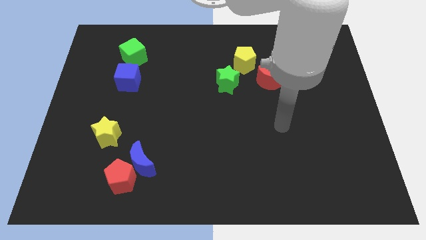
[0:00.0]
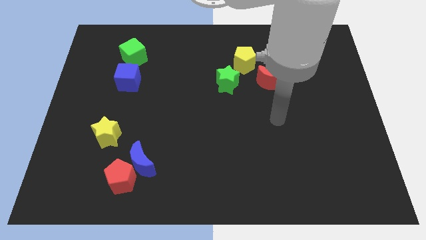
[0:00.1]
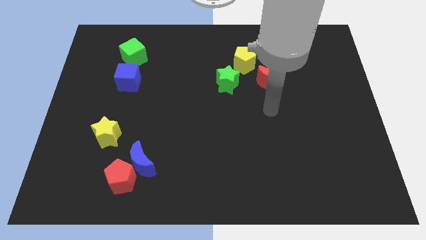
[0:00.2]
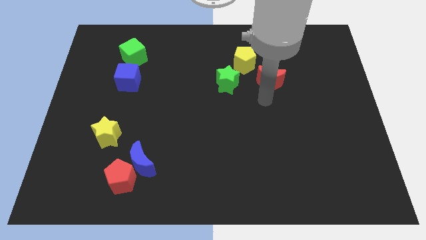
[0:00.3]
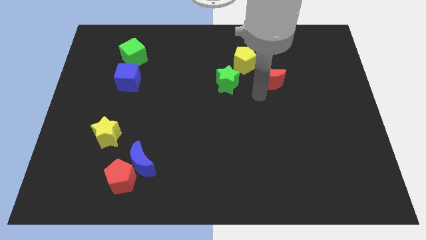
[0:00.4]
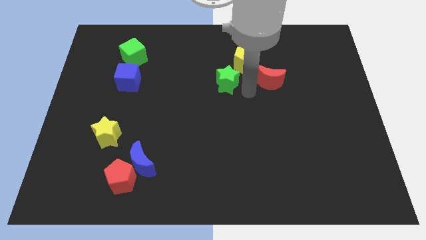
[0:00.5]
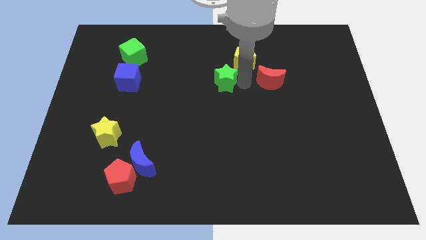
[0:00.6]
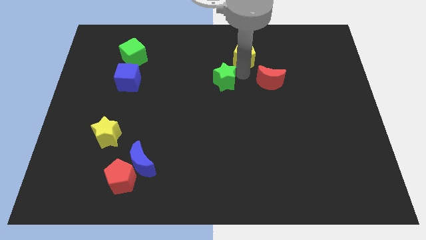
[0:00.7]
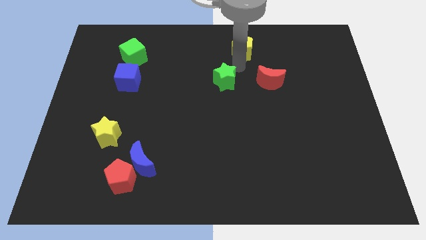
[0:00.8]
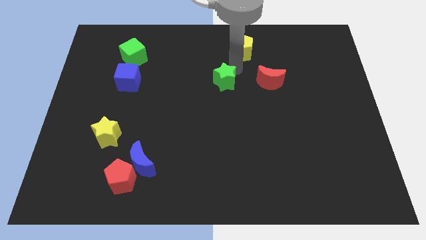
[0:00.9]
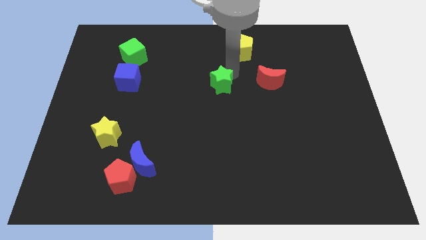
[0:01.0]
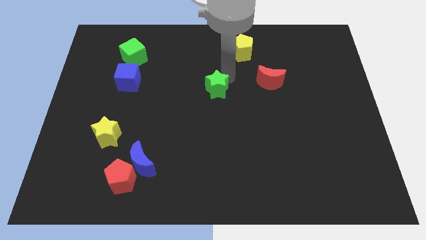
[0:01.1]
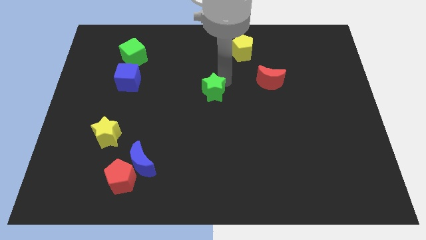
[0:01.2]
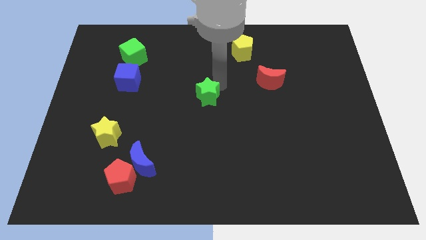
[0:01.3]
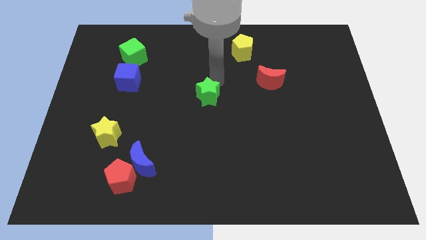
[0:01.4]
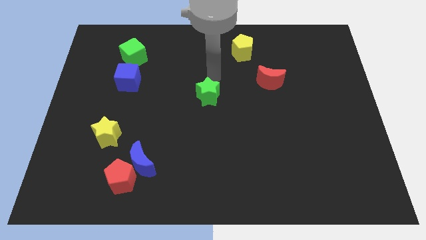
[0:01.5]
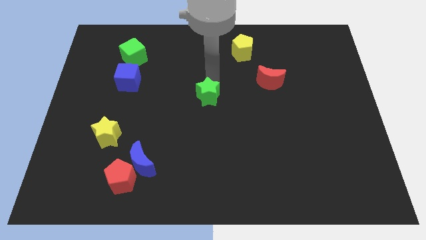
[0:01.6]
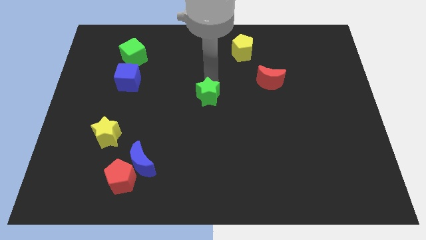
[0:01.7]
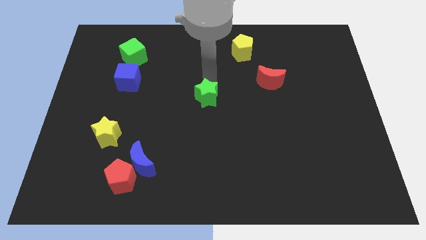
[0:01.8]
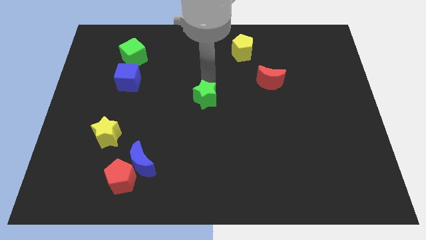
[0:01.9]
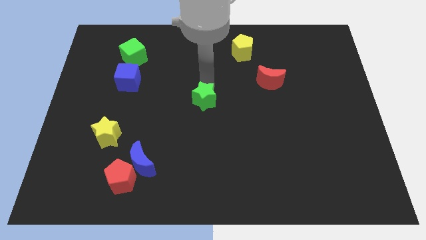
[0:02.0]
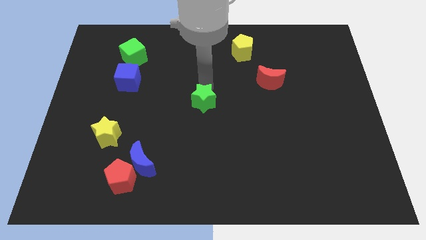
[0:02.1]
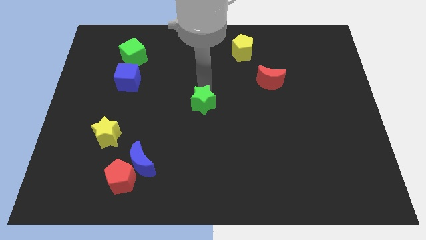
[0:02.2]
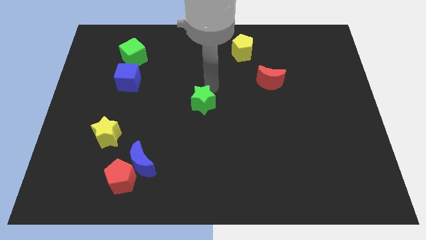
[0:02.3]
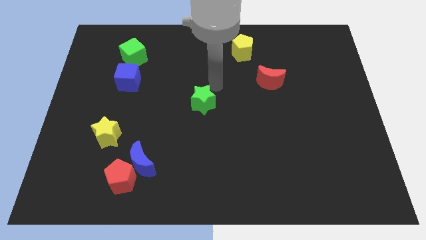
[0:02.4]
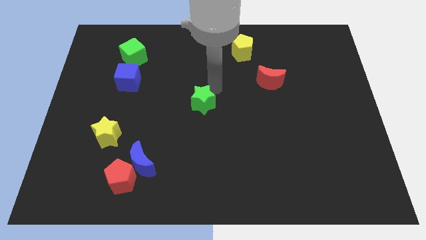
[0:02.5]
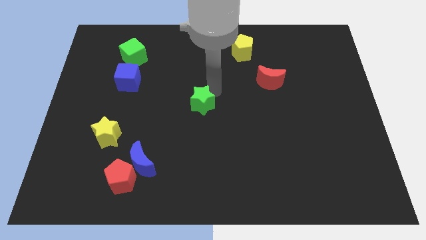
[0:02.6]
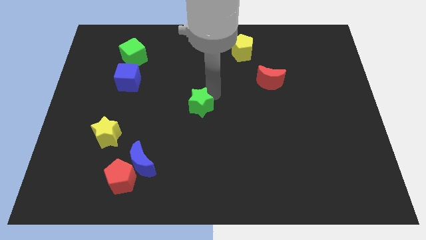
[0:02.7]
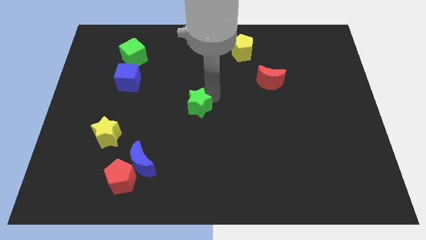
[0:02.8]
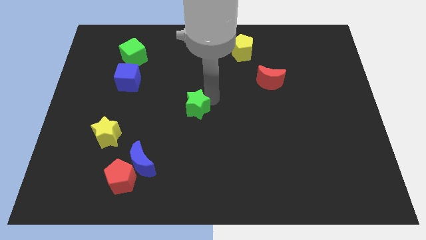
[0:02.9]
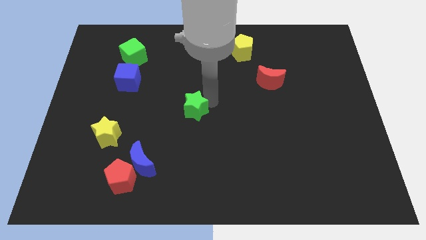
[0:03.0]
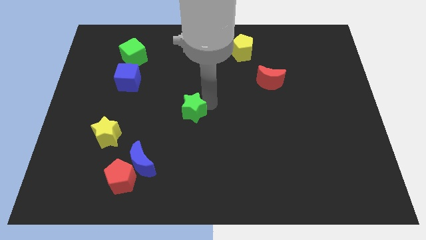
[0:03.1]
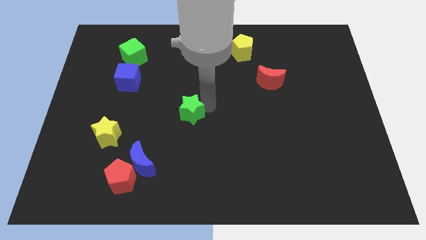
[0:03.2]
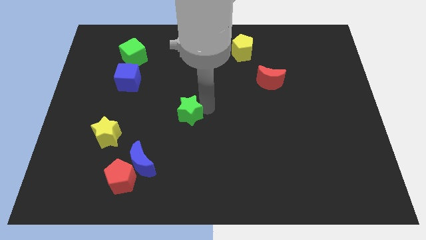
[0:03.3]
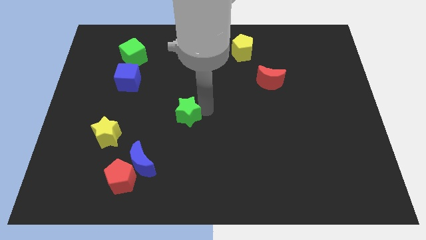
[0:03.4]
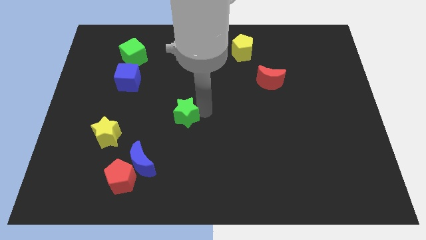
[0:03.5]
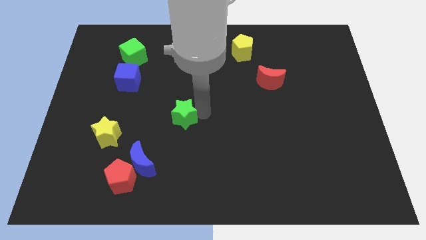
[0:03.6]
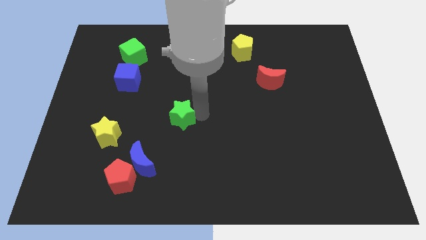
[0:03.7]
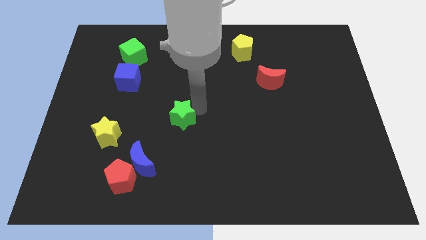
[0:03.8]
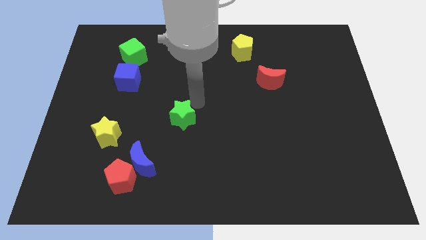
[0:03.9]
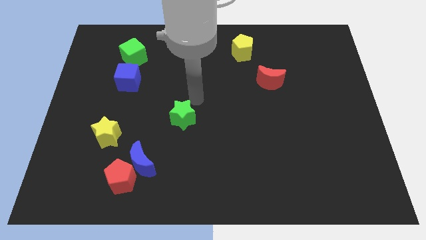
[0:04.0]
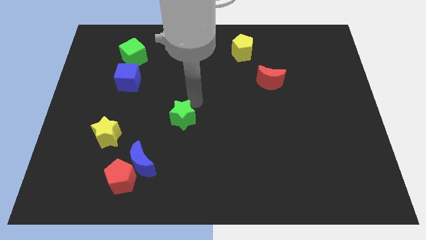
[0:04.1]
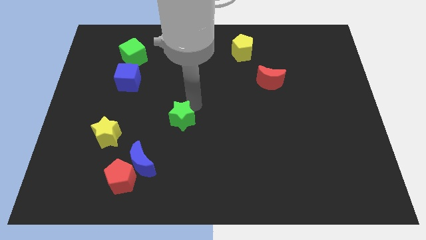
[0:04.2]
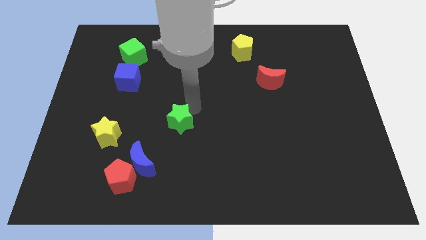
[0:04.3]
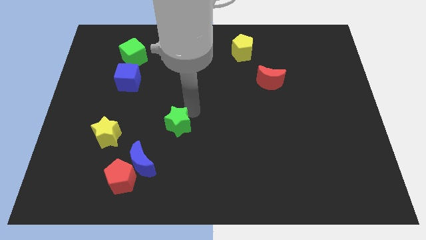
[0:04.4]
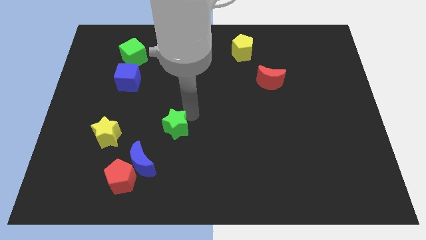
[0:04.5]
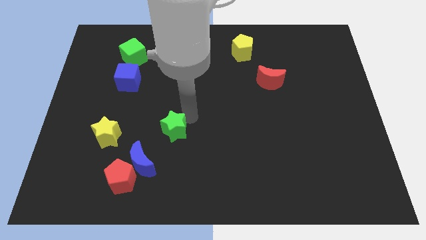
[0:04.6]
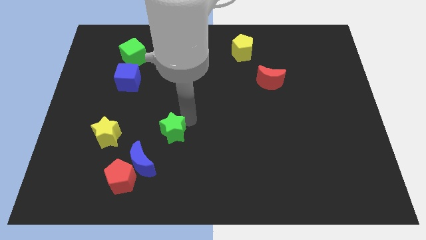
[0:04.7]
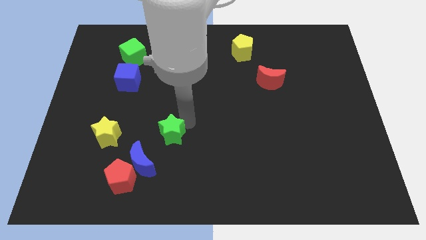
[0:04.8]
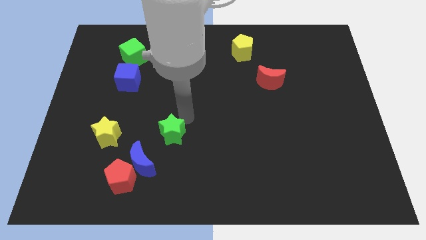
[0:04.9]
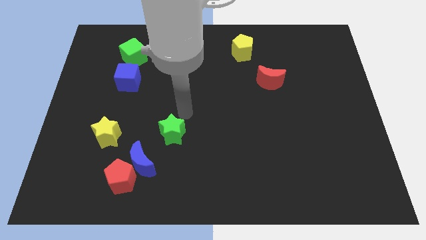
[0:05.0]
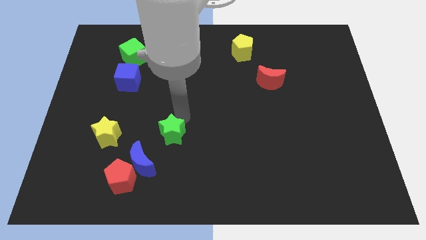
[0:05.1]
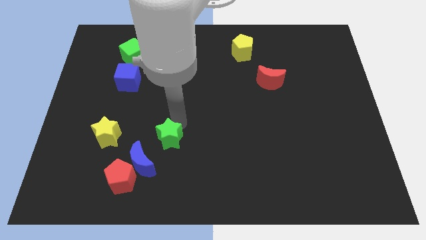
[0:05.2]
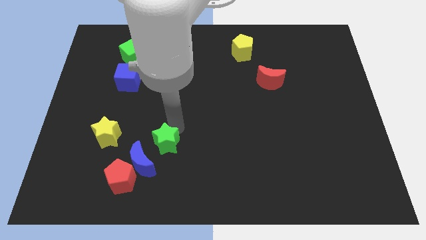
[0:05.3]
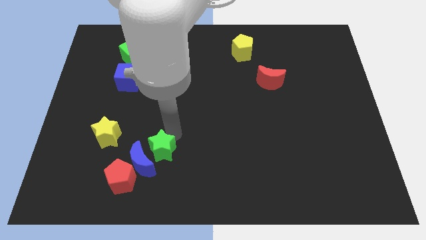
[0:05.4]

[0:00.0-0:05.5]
slide the green star towards the blue moon

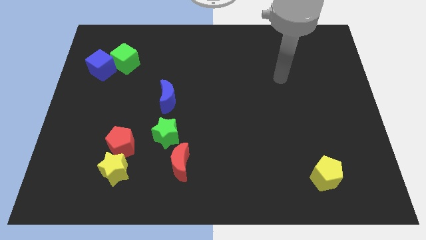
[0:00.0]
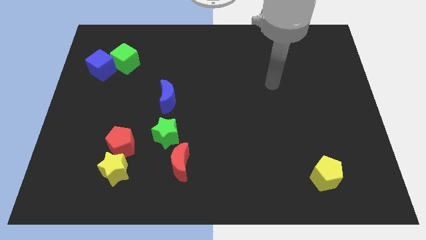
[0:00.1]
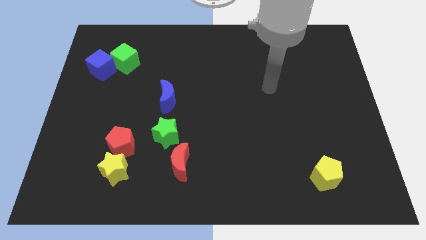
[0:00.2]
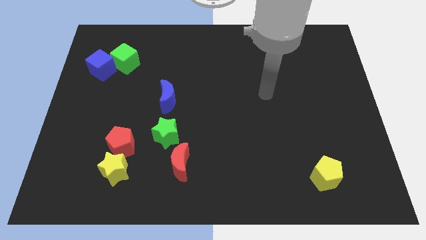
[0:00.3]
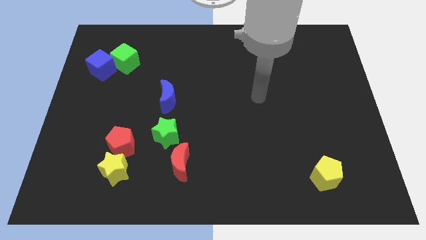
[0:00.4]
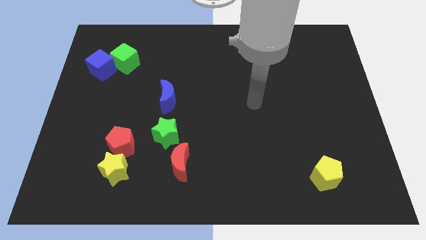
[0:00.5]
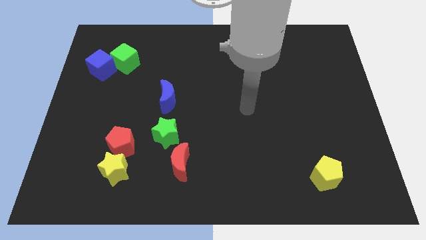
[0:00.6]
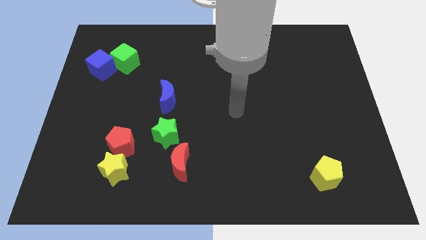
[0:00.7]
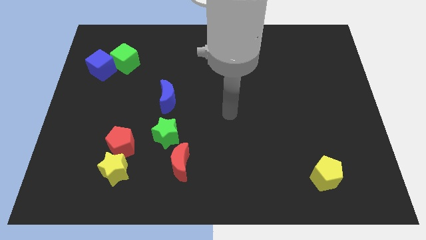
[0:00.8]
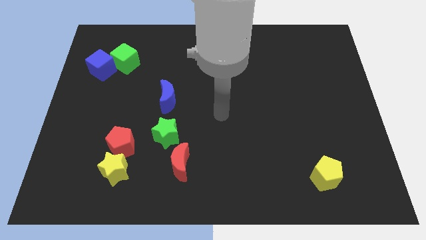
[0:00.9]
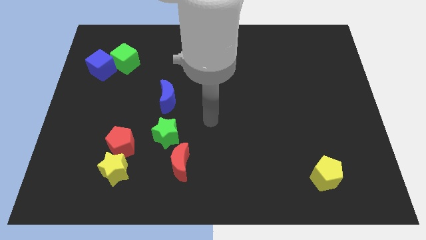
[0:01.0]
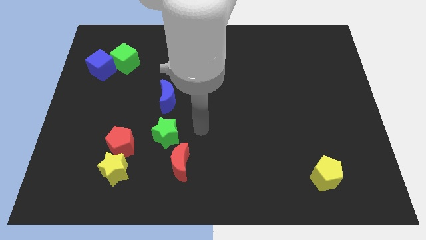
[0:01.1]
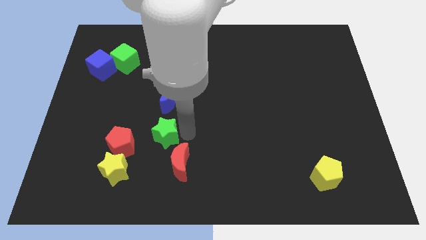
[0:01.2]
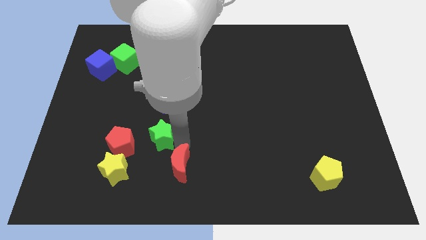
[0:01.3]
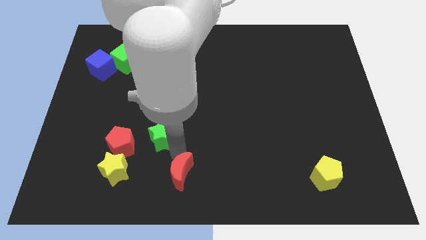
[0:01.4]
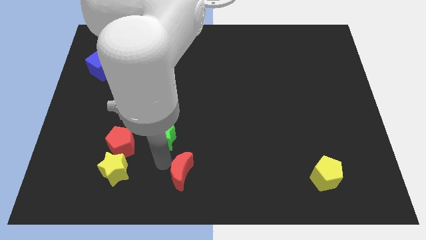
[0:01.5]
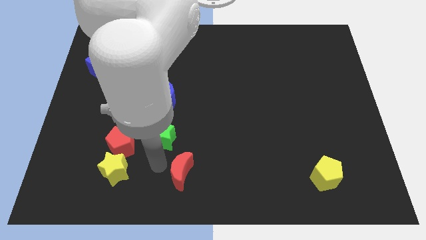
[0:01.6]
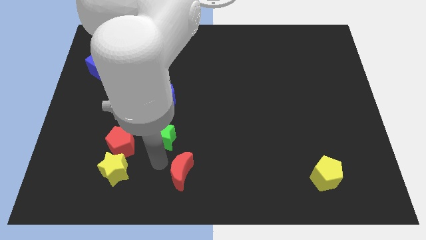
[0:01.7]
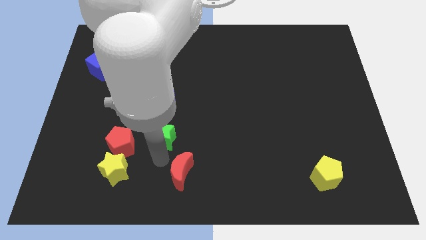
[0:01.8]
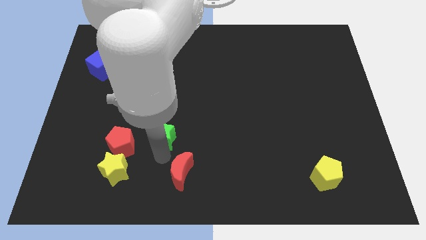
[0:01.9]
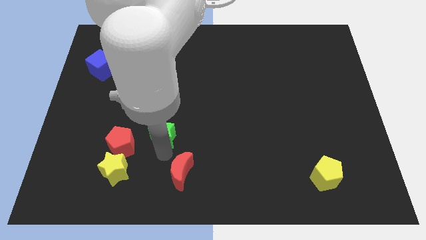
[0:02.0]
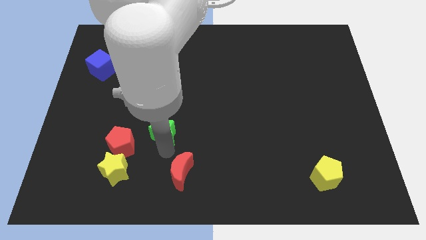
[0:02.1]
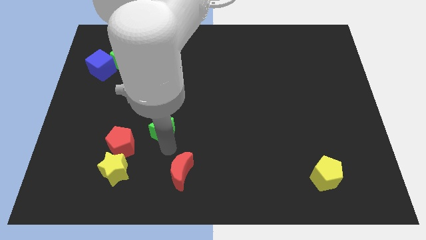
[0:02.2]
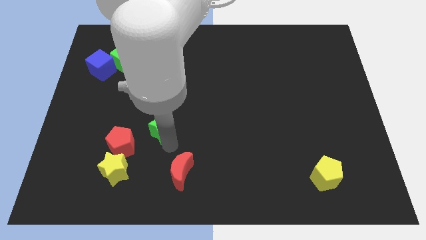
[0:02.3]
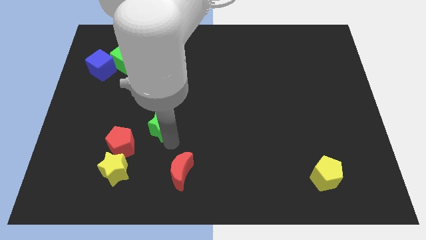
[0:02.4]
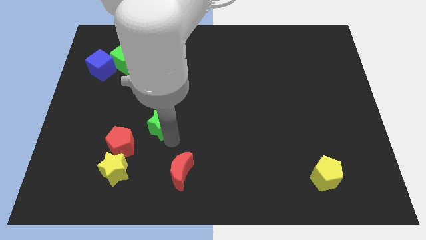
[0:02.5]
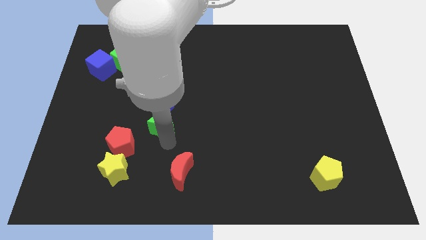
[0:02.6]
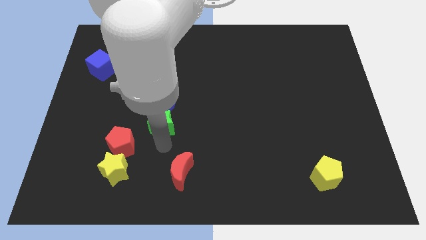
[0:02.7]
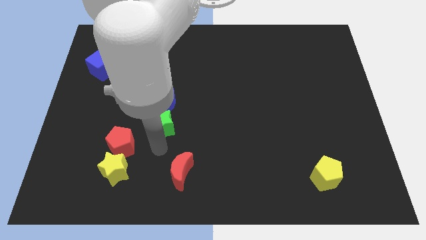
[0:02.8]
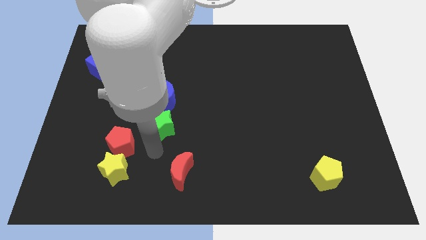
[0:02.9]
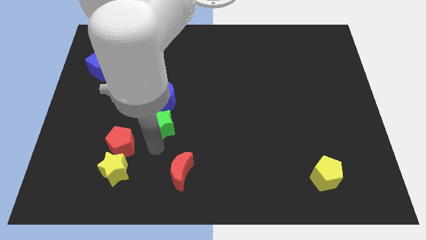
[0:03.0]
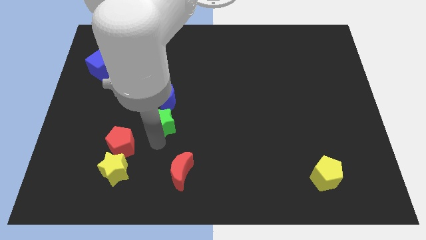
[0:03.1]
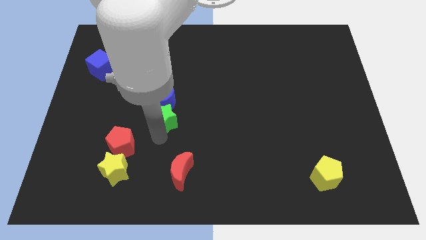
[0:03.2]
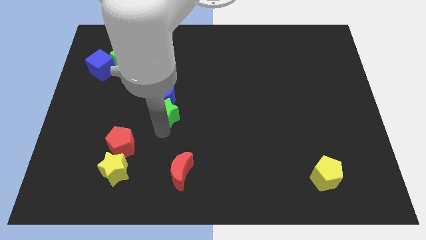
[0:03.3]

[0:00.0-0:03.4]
push the green star towards the blue moon
